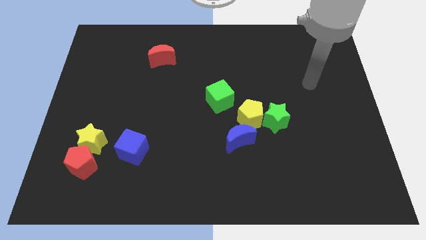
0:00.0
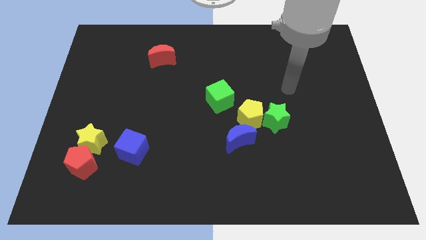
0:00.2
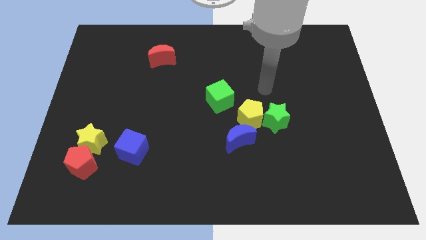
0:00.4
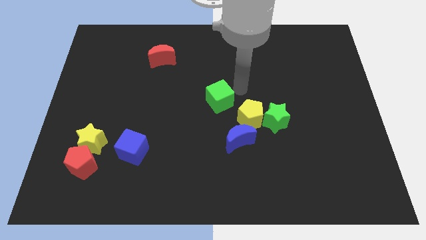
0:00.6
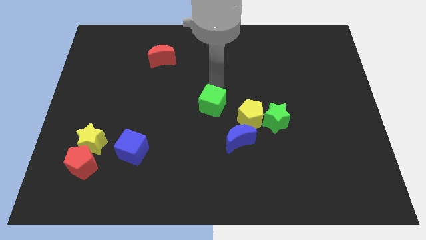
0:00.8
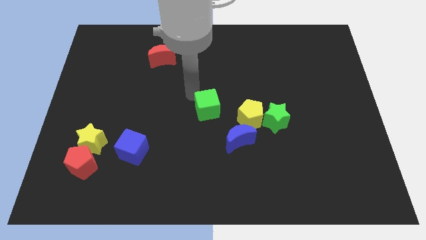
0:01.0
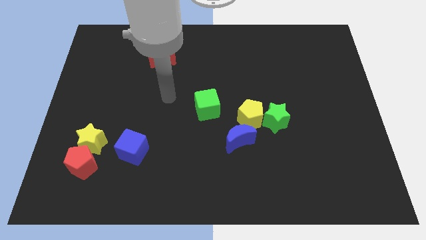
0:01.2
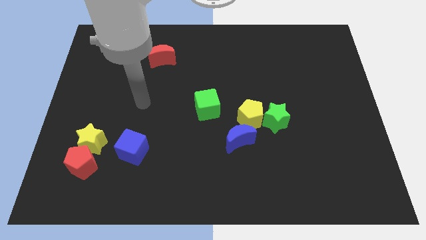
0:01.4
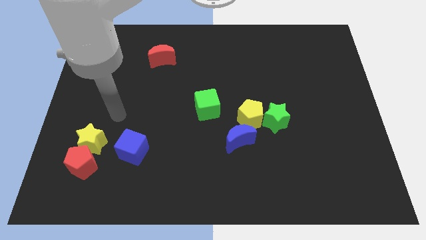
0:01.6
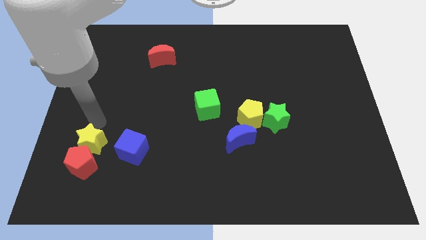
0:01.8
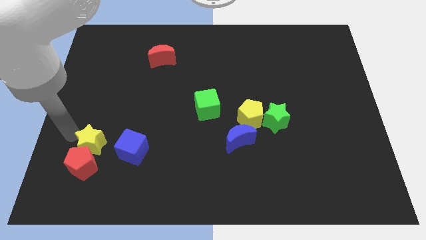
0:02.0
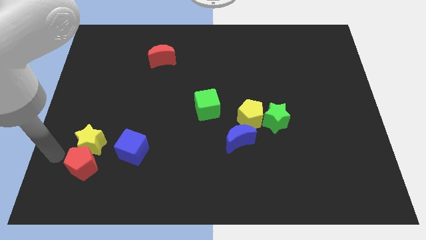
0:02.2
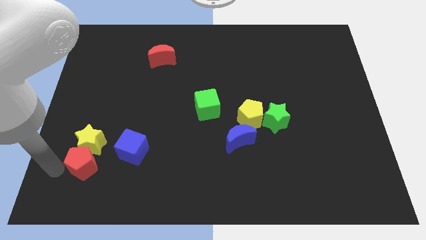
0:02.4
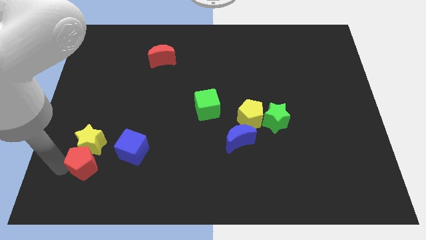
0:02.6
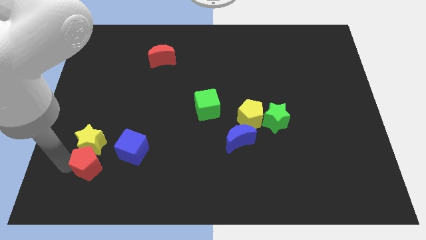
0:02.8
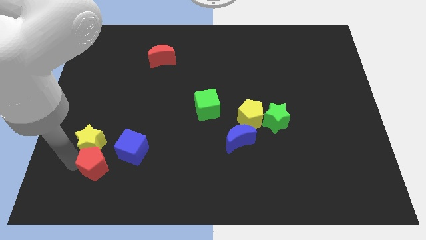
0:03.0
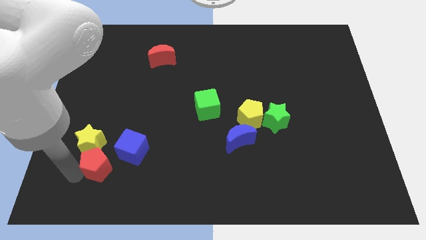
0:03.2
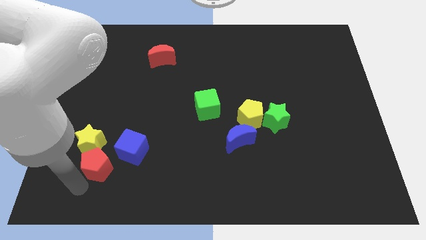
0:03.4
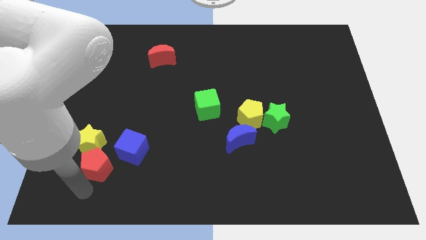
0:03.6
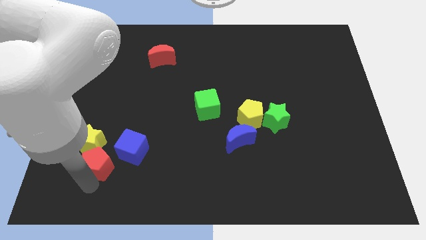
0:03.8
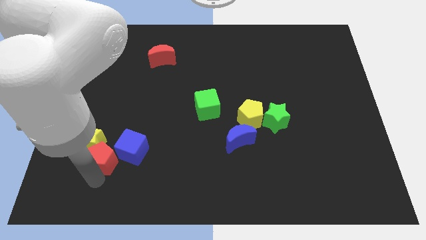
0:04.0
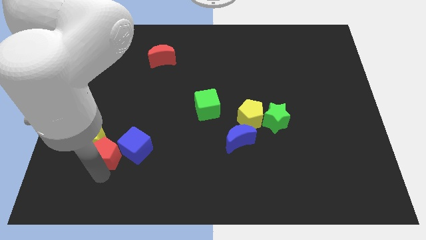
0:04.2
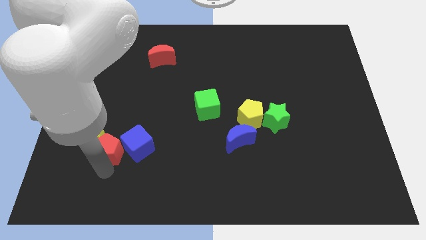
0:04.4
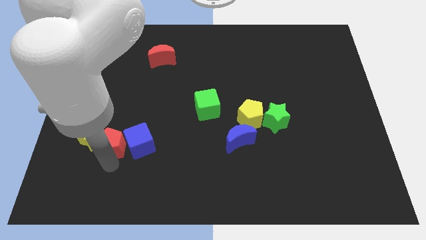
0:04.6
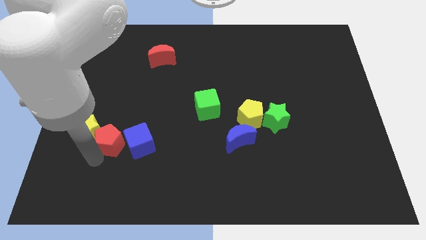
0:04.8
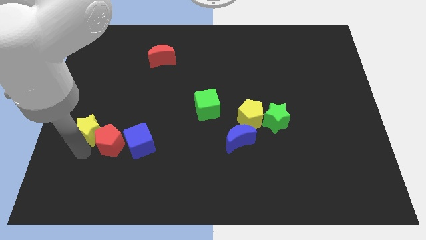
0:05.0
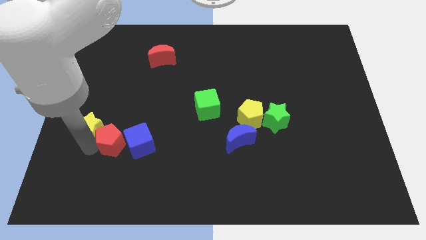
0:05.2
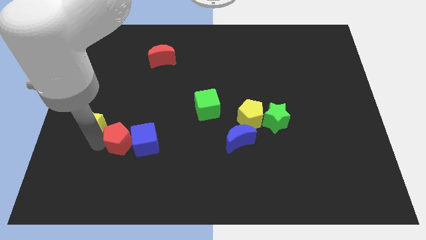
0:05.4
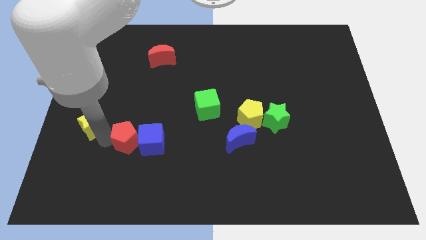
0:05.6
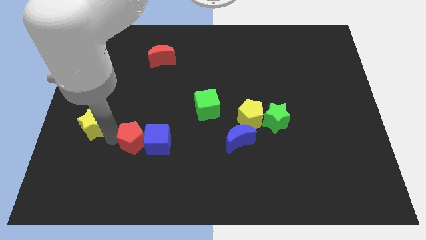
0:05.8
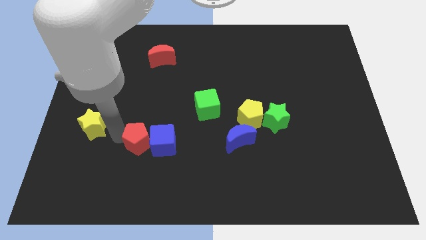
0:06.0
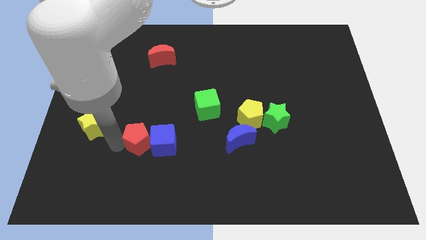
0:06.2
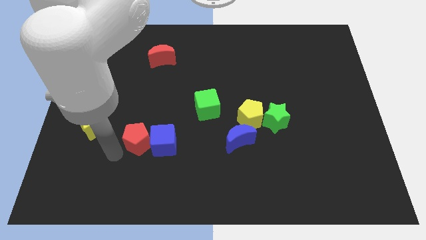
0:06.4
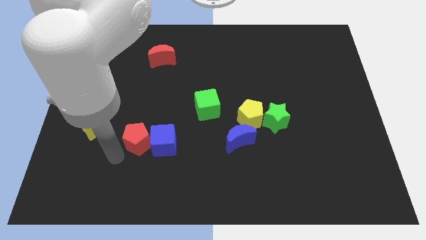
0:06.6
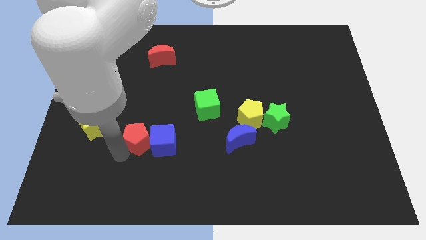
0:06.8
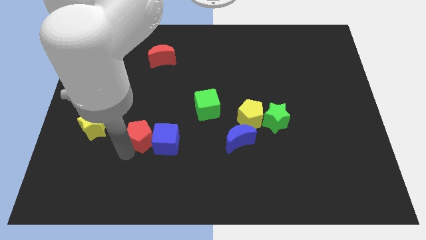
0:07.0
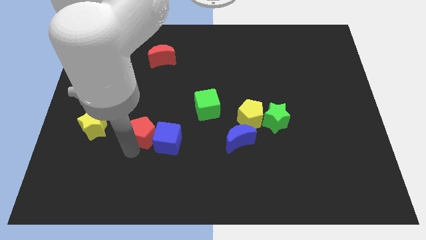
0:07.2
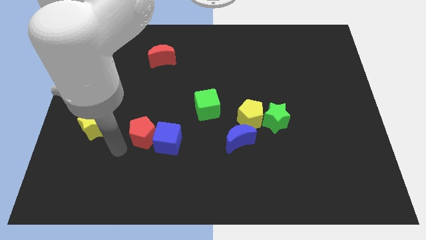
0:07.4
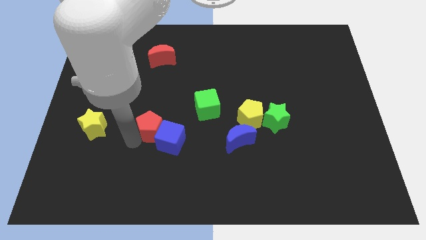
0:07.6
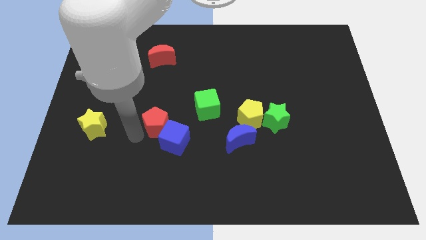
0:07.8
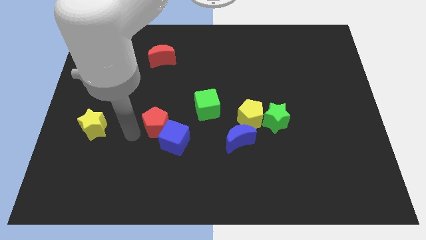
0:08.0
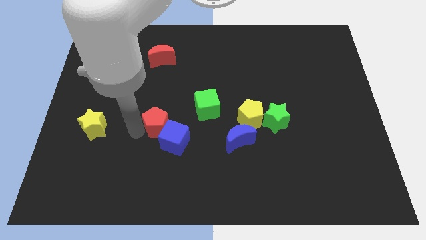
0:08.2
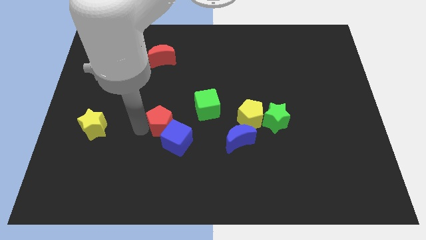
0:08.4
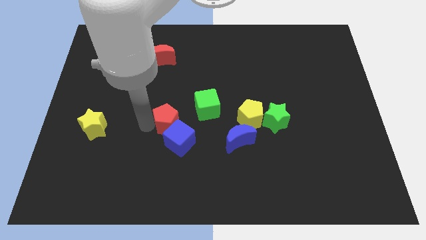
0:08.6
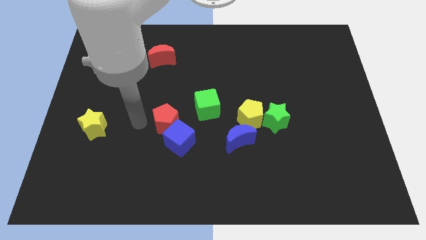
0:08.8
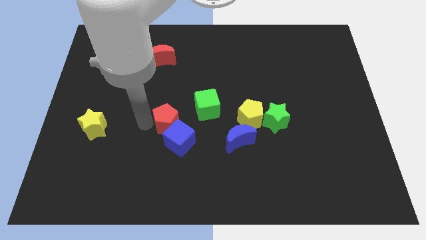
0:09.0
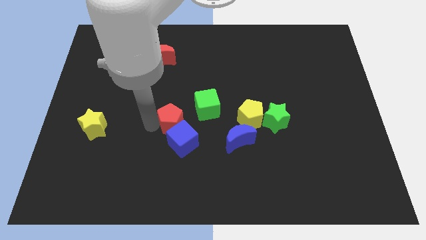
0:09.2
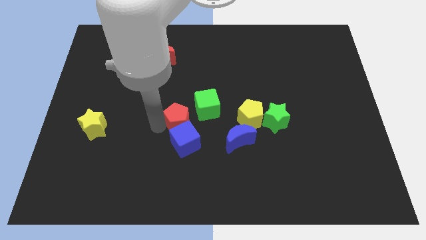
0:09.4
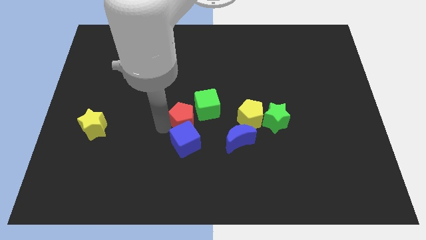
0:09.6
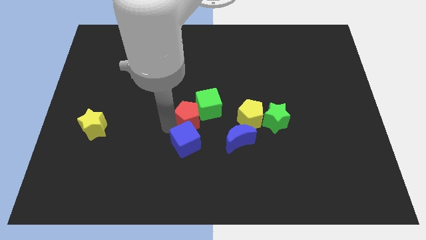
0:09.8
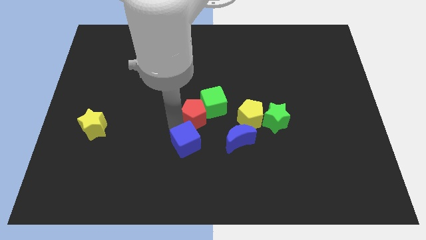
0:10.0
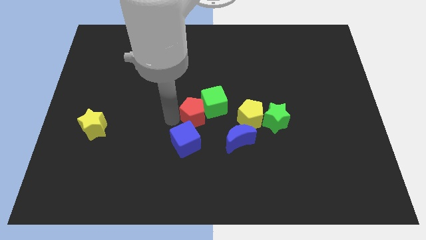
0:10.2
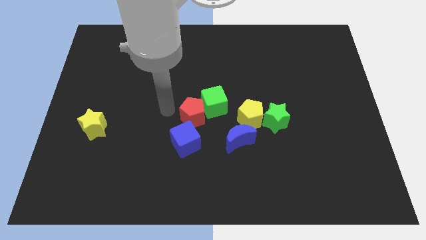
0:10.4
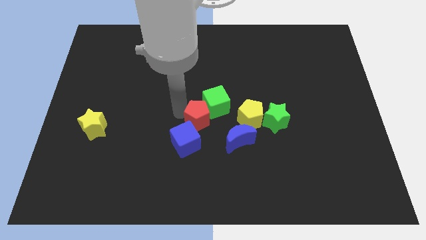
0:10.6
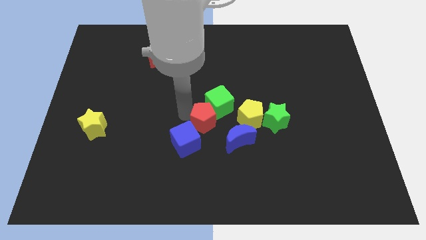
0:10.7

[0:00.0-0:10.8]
push the red pentagon to the left side of the green star

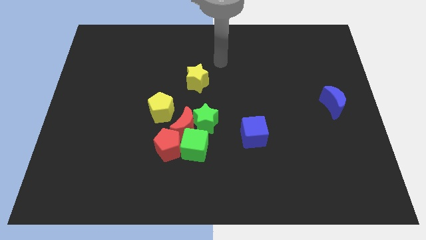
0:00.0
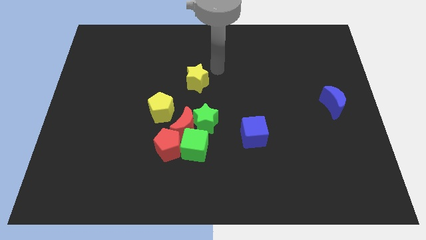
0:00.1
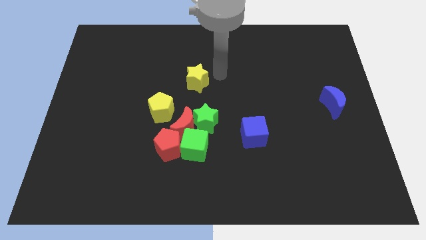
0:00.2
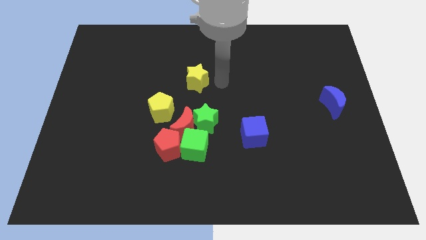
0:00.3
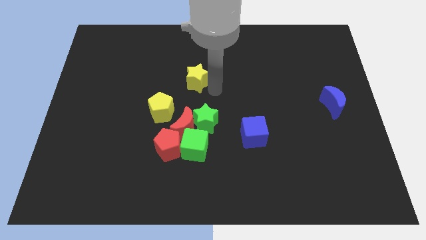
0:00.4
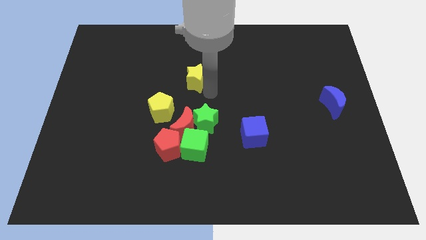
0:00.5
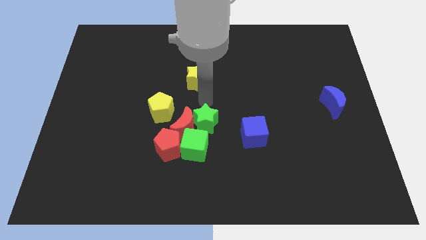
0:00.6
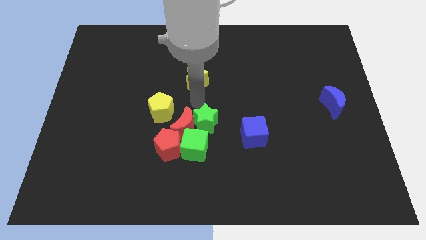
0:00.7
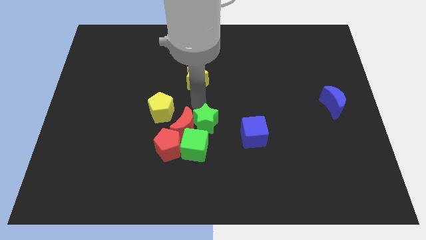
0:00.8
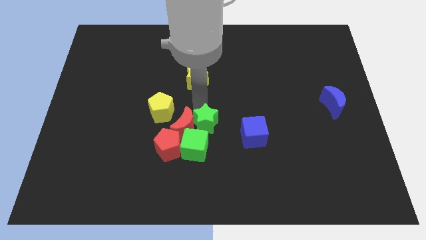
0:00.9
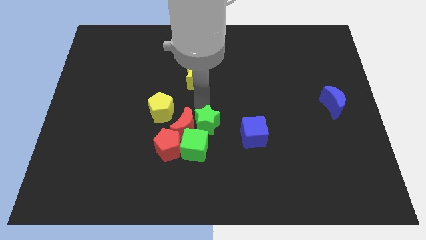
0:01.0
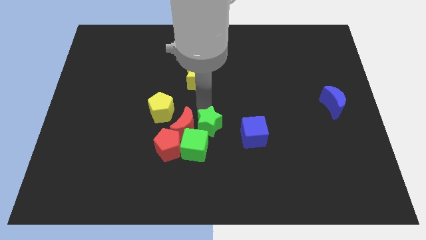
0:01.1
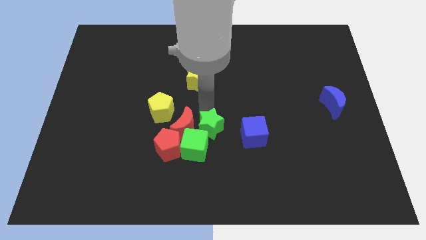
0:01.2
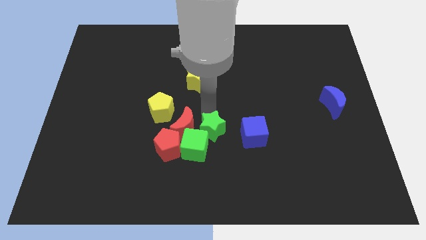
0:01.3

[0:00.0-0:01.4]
push the green star to the right of the red pentagon
